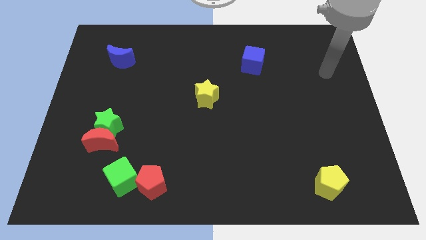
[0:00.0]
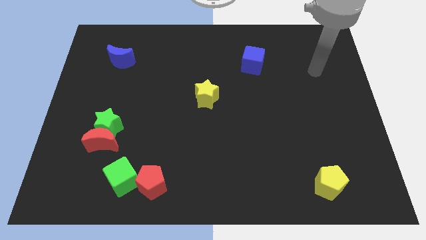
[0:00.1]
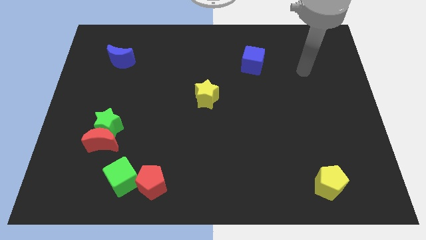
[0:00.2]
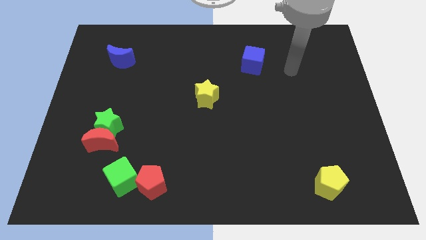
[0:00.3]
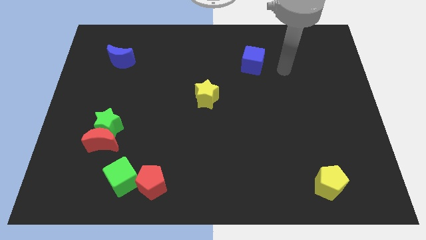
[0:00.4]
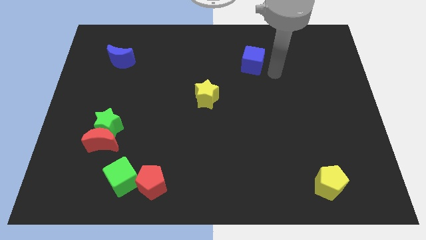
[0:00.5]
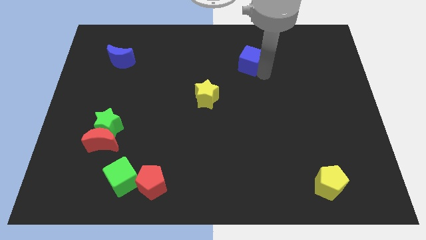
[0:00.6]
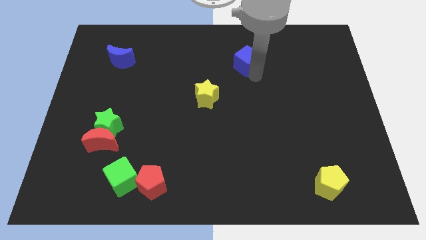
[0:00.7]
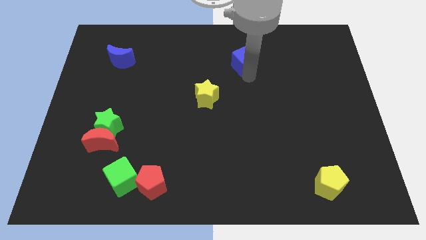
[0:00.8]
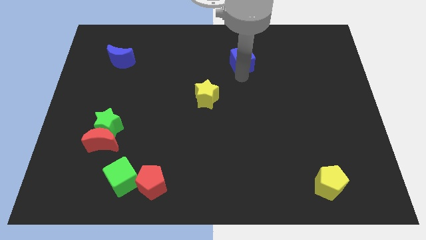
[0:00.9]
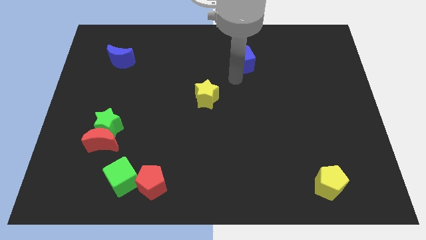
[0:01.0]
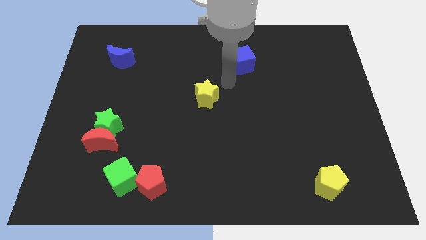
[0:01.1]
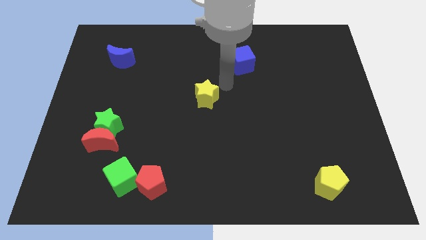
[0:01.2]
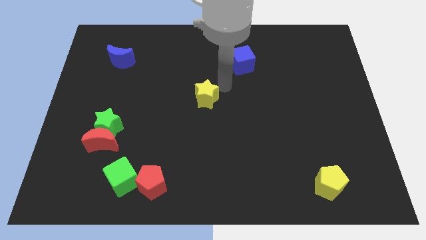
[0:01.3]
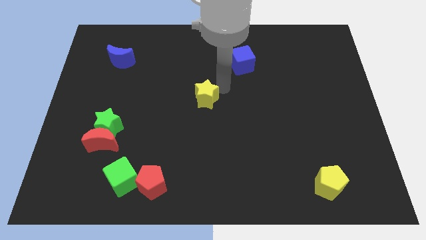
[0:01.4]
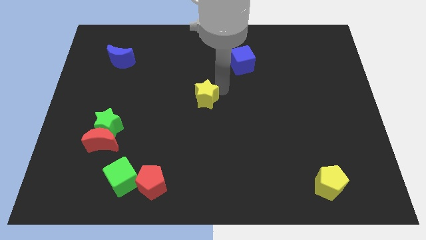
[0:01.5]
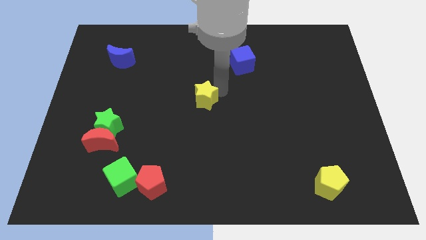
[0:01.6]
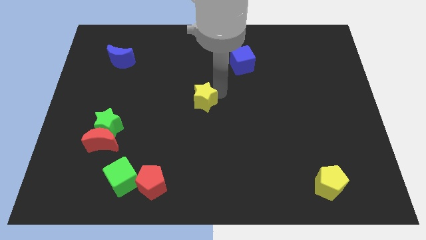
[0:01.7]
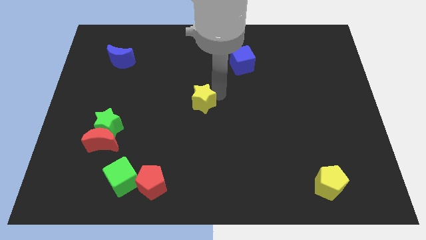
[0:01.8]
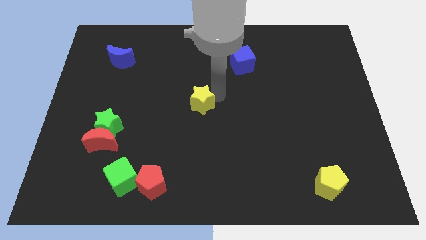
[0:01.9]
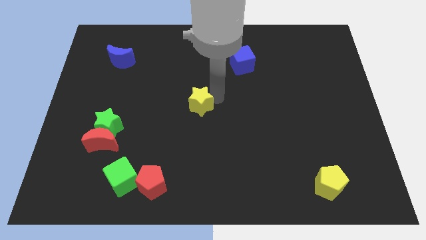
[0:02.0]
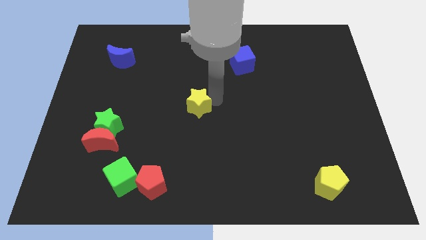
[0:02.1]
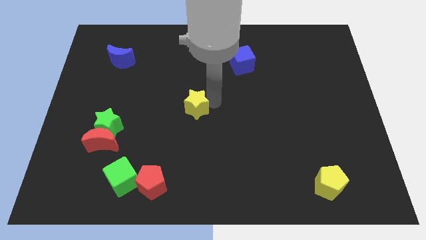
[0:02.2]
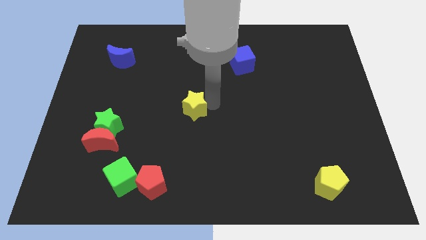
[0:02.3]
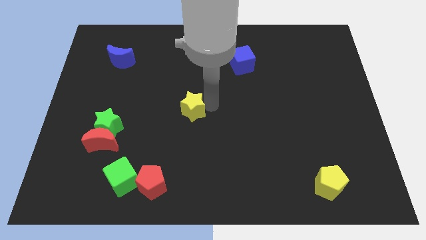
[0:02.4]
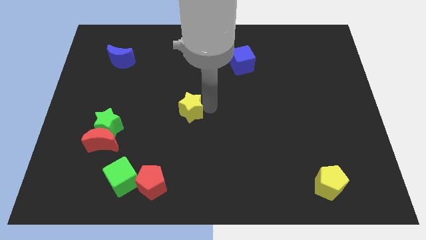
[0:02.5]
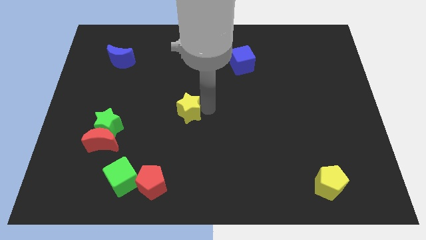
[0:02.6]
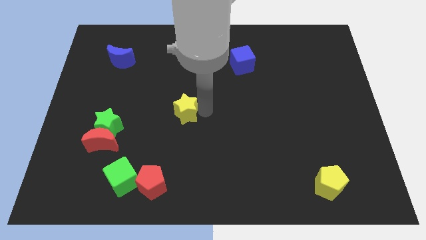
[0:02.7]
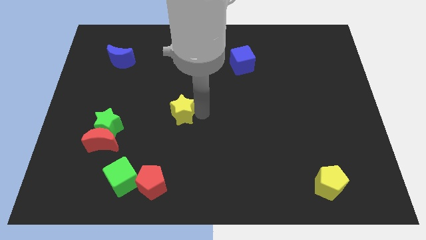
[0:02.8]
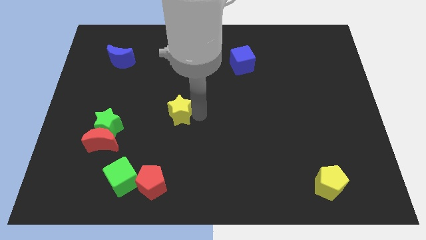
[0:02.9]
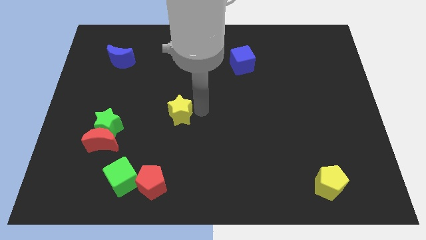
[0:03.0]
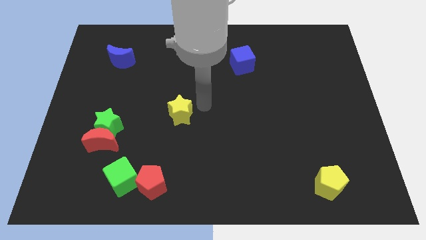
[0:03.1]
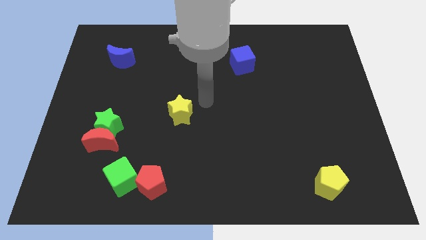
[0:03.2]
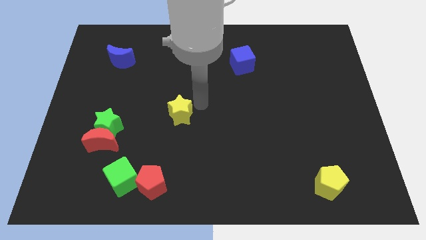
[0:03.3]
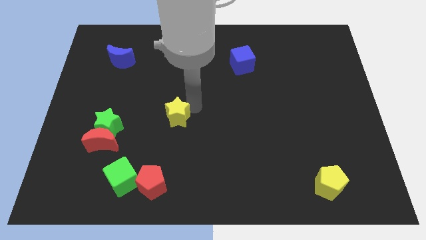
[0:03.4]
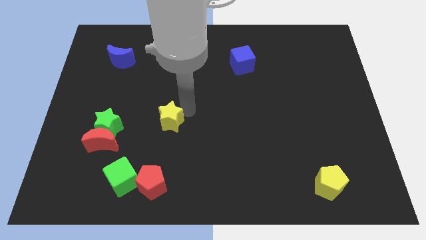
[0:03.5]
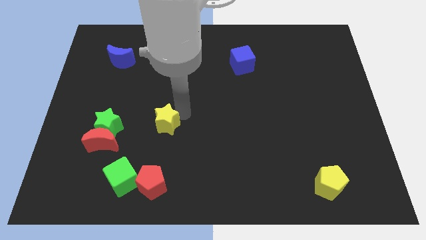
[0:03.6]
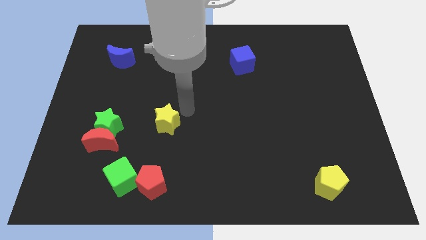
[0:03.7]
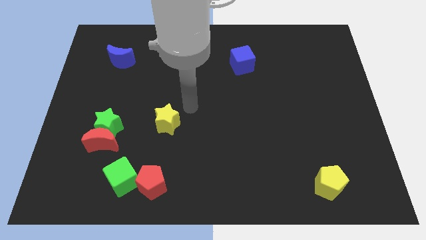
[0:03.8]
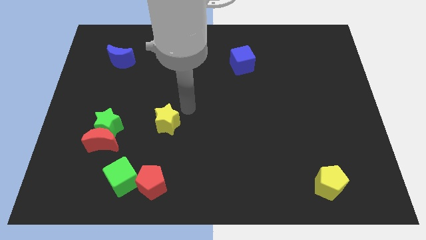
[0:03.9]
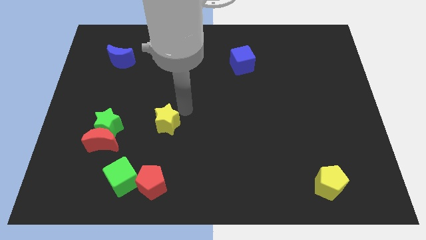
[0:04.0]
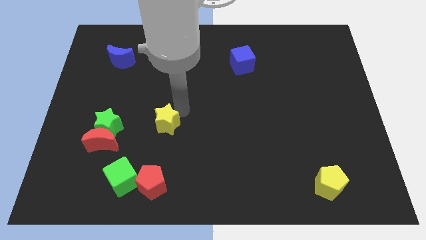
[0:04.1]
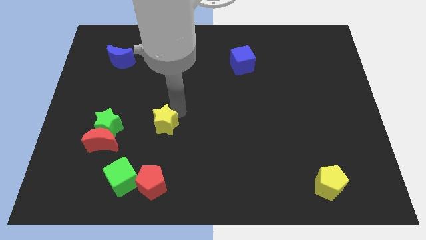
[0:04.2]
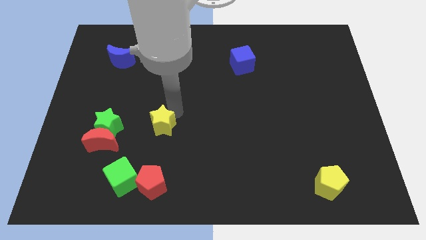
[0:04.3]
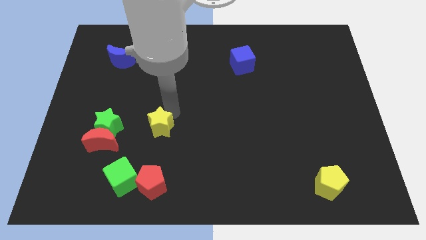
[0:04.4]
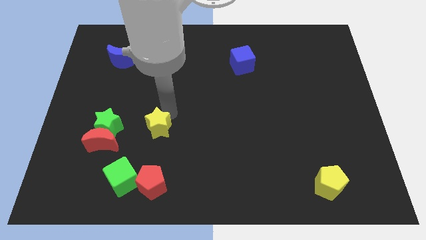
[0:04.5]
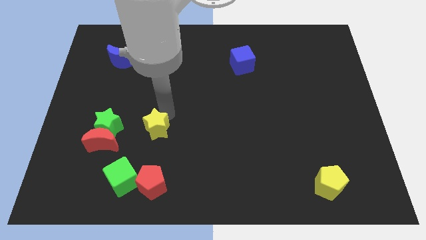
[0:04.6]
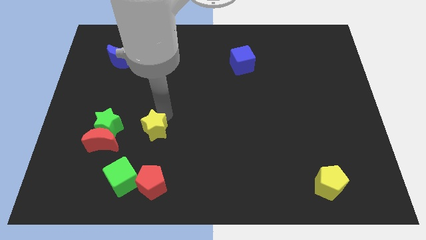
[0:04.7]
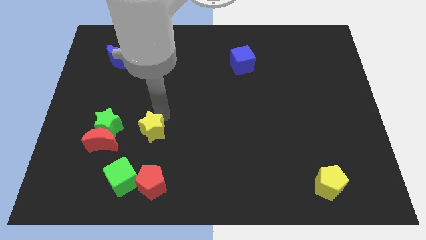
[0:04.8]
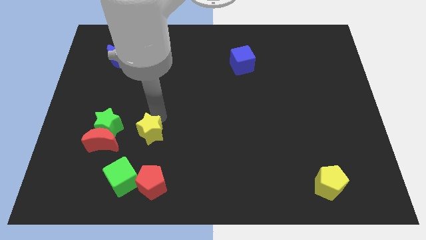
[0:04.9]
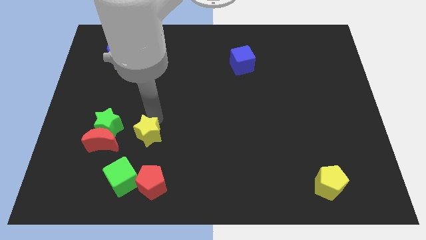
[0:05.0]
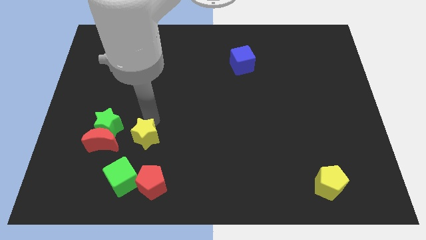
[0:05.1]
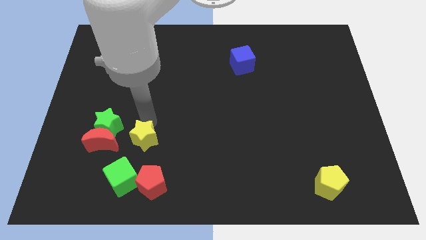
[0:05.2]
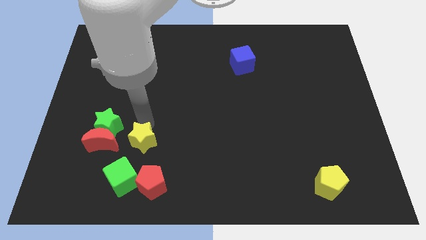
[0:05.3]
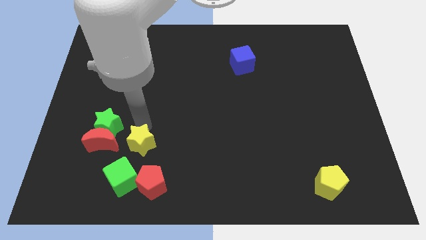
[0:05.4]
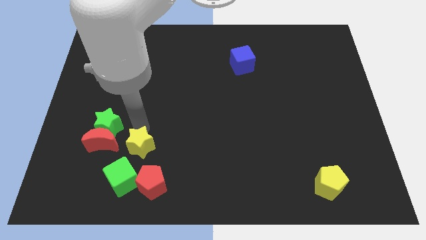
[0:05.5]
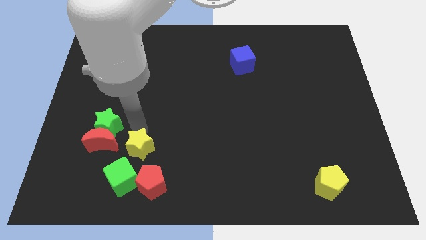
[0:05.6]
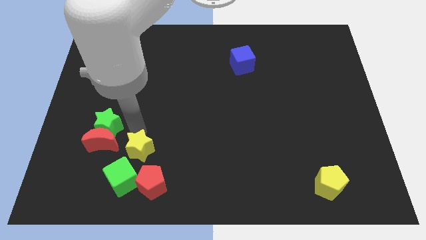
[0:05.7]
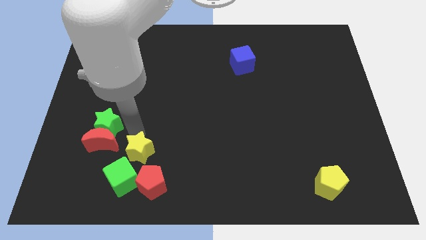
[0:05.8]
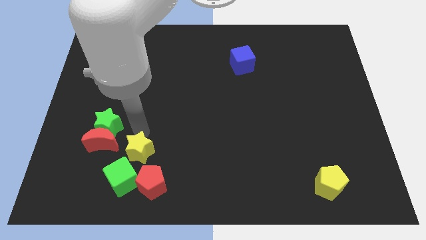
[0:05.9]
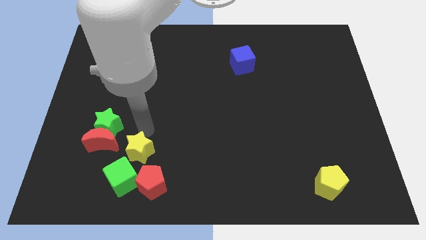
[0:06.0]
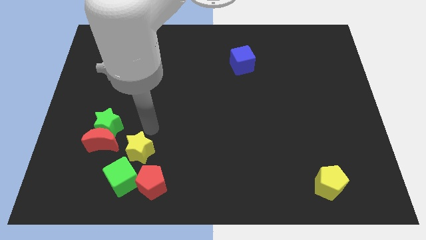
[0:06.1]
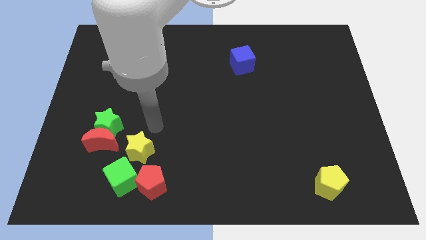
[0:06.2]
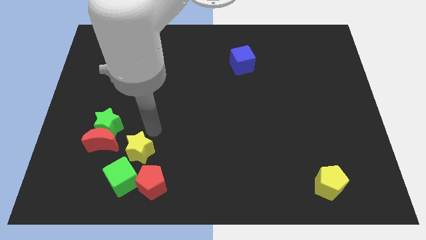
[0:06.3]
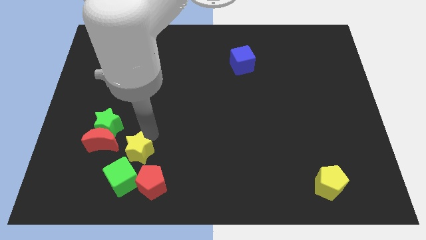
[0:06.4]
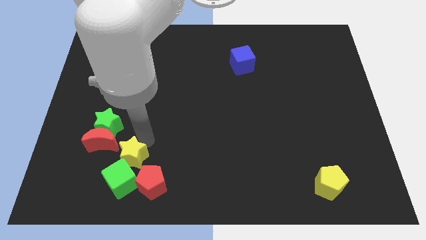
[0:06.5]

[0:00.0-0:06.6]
slide the yellow star towards the green cube

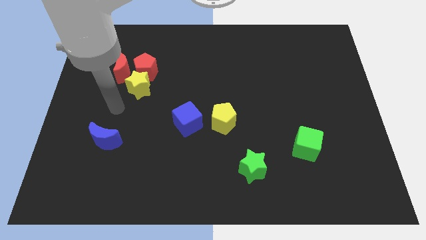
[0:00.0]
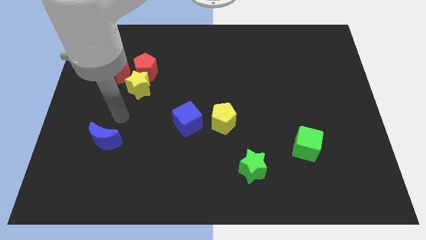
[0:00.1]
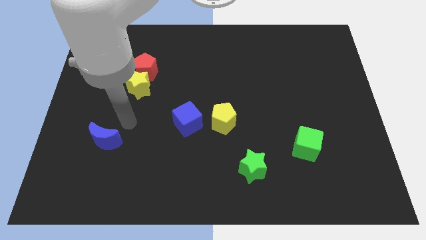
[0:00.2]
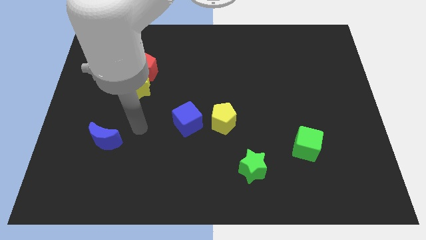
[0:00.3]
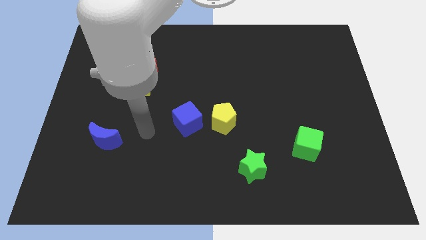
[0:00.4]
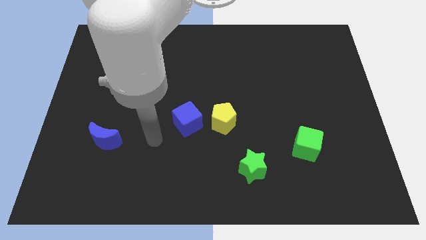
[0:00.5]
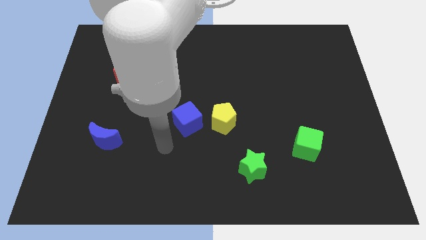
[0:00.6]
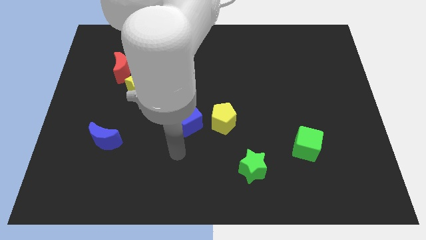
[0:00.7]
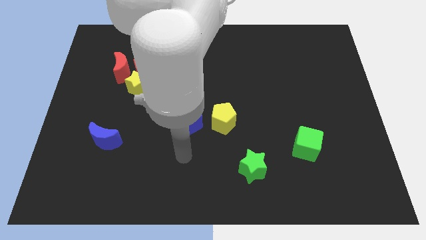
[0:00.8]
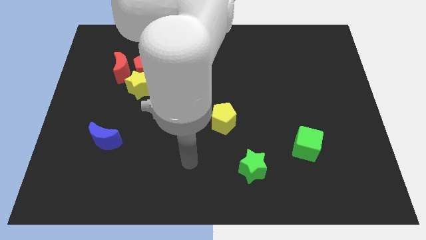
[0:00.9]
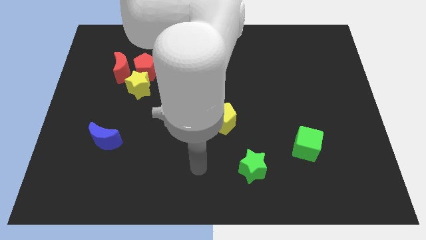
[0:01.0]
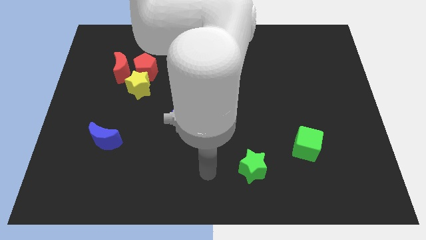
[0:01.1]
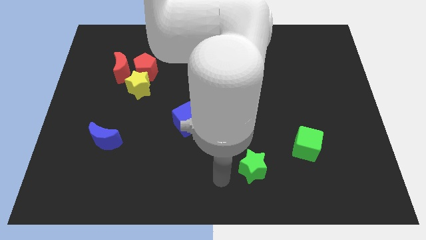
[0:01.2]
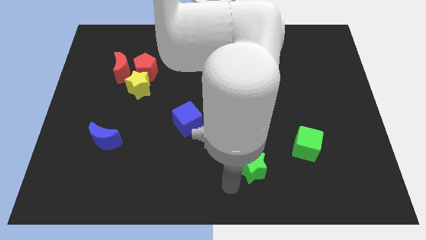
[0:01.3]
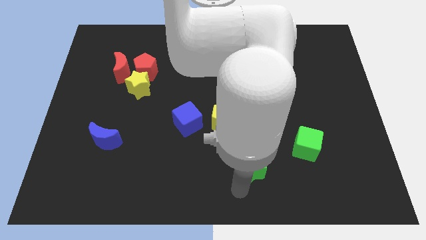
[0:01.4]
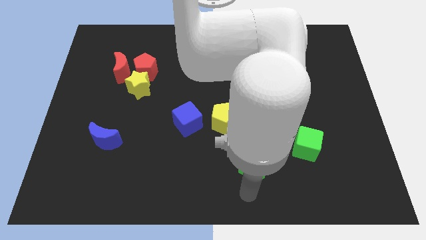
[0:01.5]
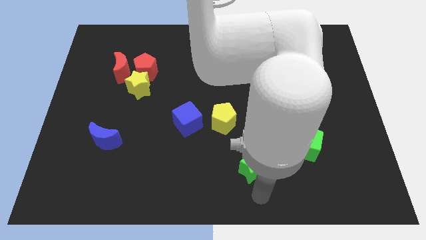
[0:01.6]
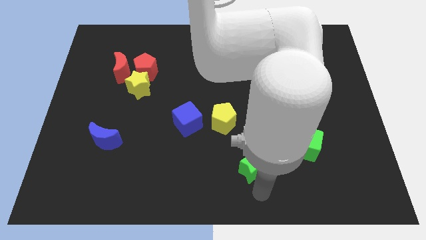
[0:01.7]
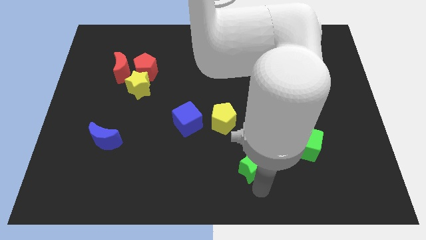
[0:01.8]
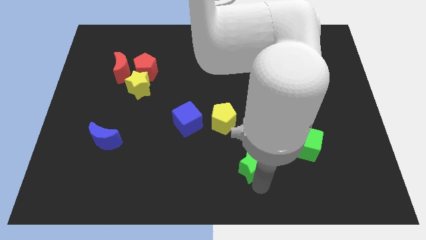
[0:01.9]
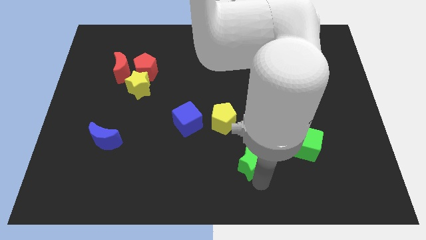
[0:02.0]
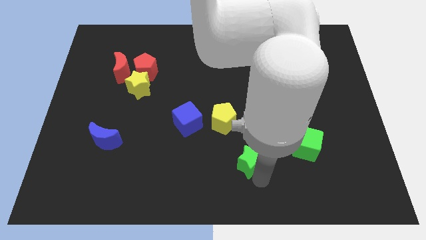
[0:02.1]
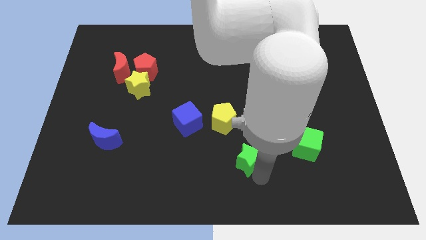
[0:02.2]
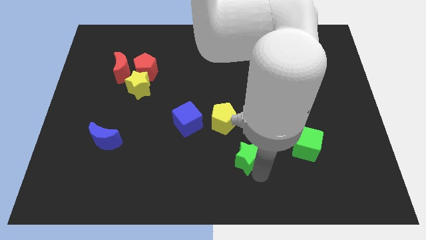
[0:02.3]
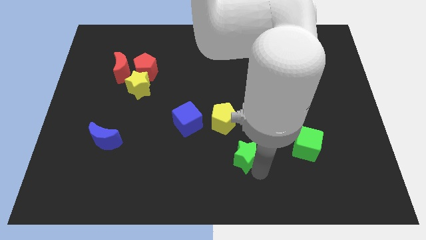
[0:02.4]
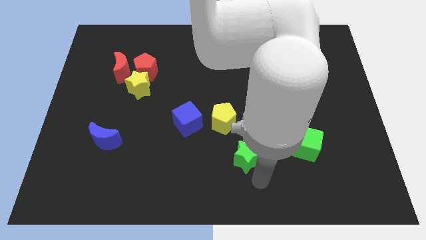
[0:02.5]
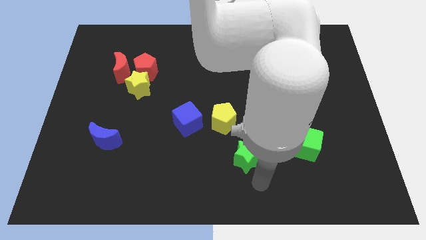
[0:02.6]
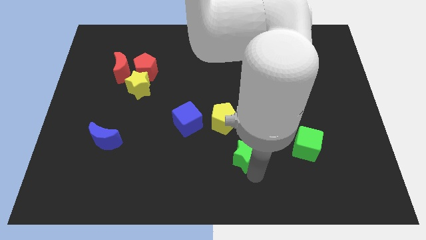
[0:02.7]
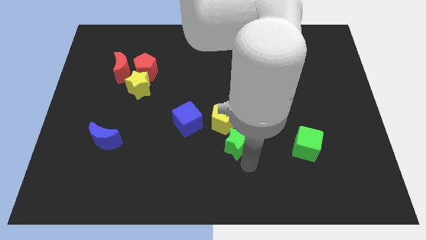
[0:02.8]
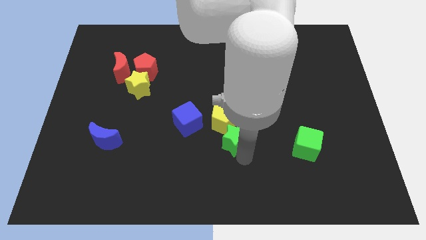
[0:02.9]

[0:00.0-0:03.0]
push the green star close to the yellow pentagon
